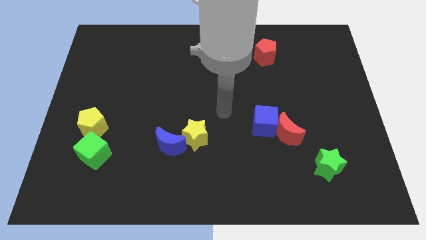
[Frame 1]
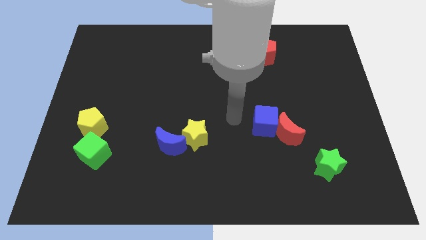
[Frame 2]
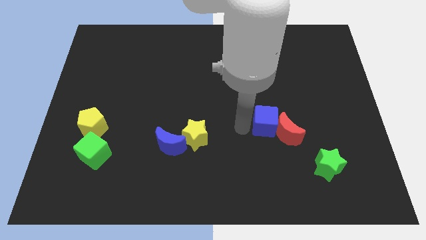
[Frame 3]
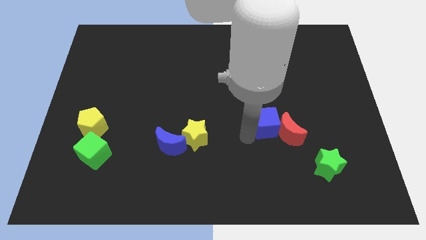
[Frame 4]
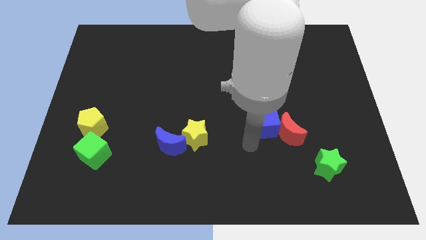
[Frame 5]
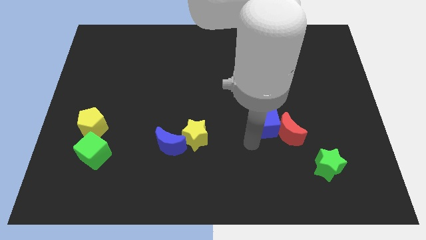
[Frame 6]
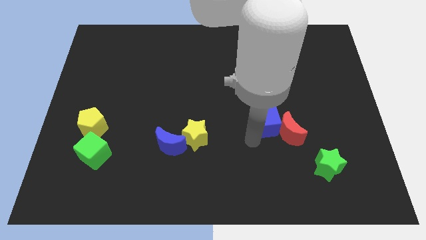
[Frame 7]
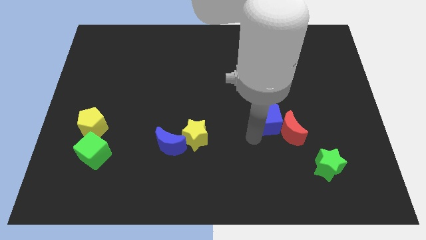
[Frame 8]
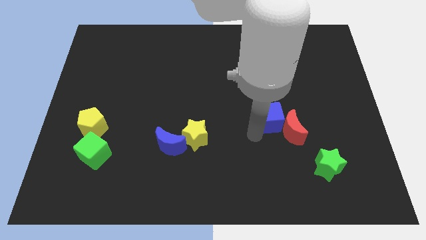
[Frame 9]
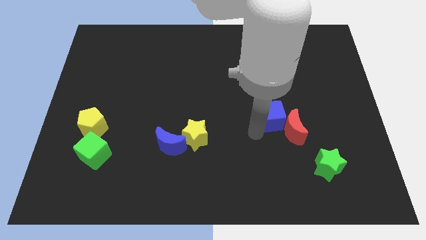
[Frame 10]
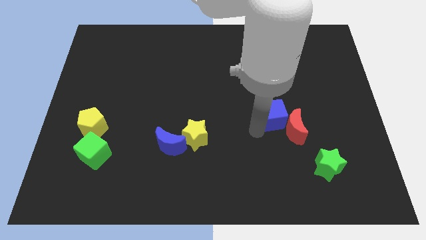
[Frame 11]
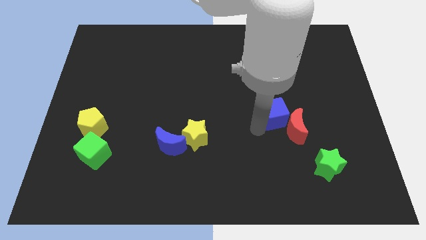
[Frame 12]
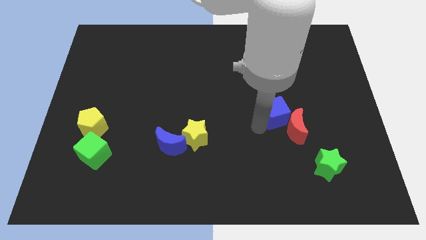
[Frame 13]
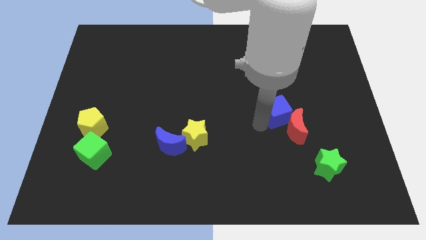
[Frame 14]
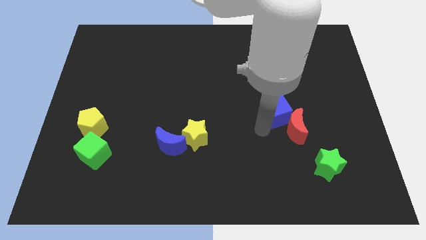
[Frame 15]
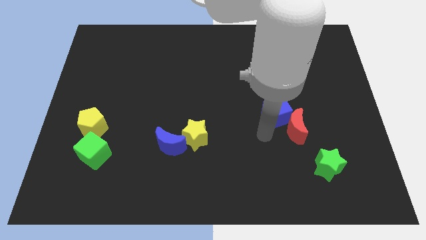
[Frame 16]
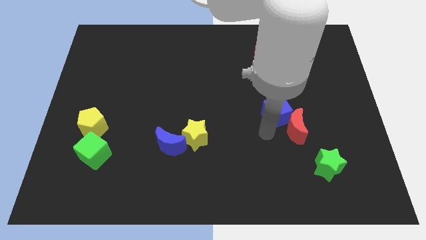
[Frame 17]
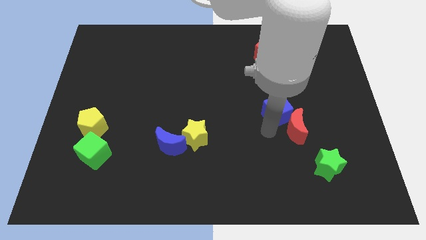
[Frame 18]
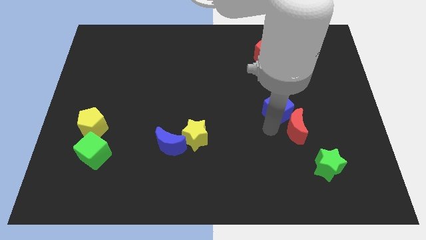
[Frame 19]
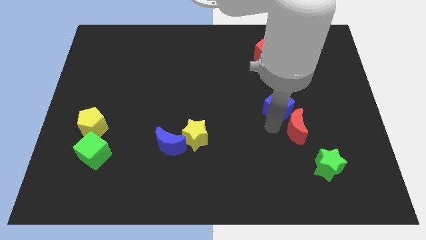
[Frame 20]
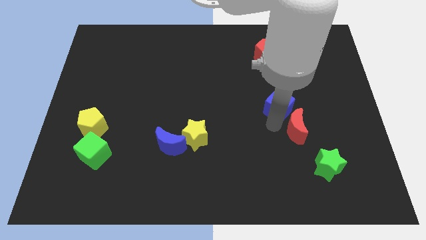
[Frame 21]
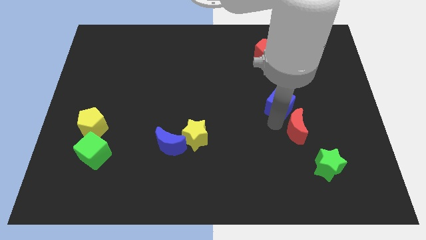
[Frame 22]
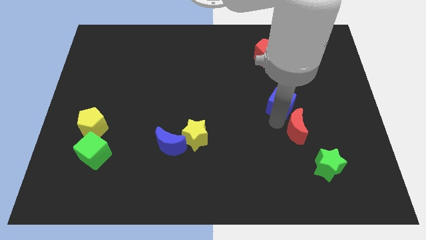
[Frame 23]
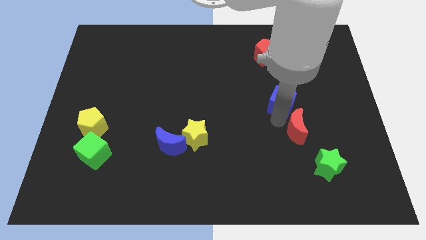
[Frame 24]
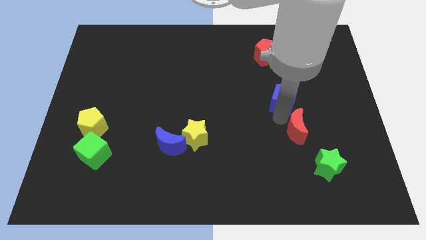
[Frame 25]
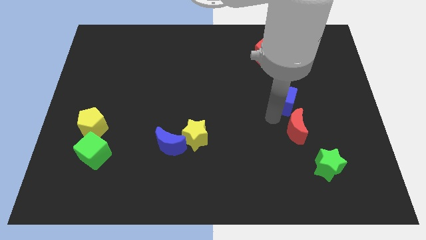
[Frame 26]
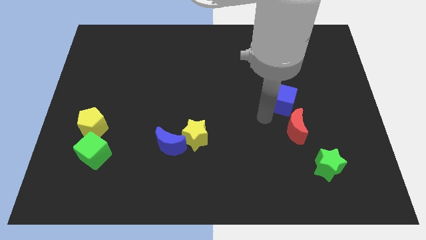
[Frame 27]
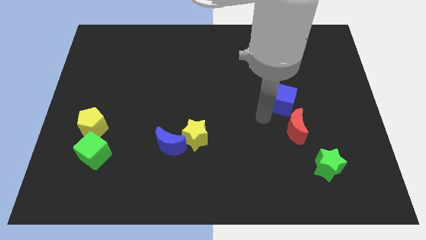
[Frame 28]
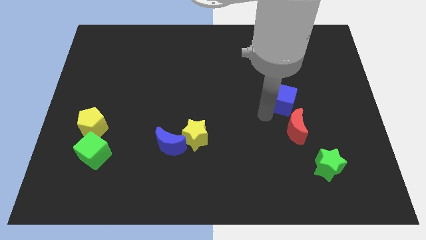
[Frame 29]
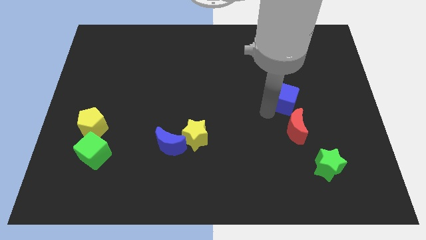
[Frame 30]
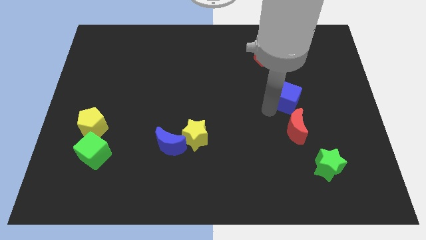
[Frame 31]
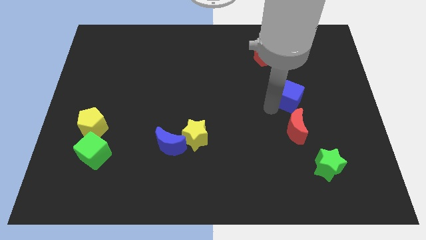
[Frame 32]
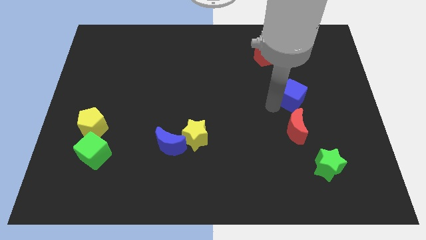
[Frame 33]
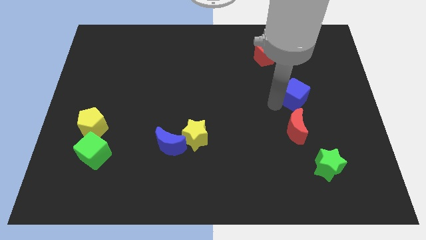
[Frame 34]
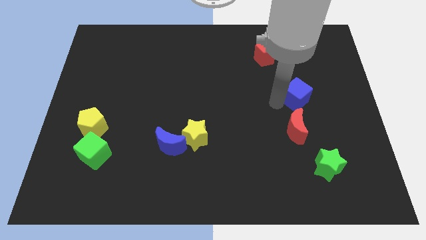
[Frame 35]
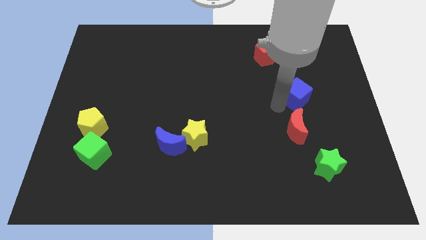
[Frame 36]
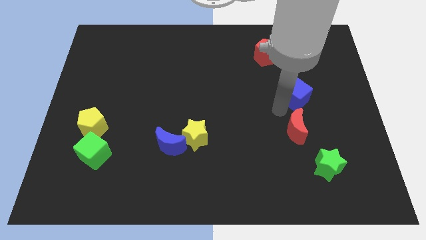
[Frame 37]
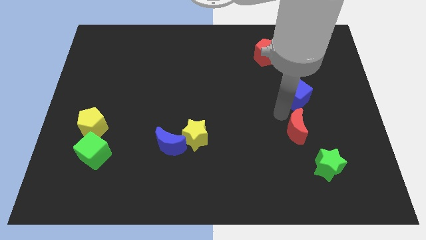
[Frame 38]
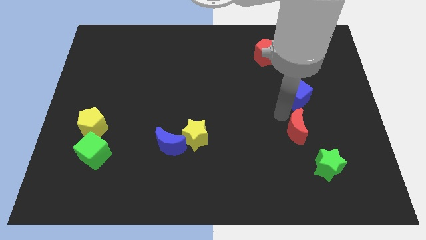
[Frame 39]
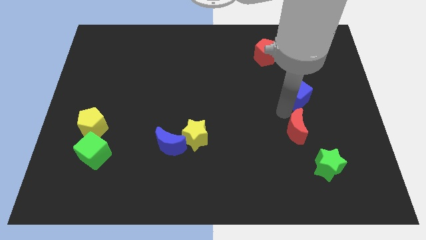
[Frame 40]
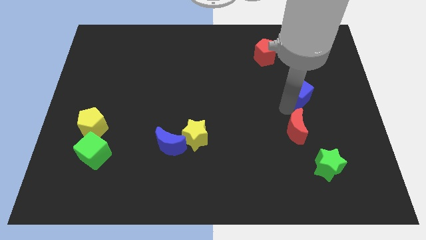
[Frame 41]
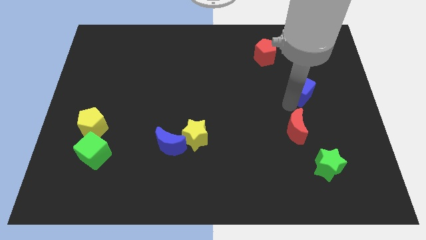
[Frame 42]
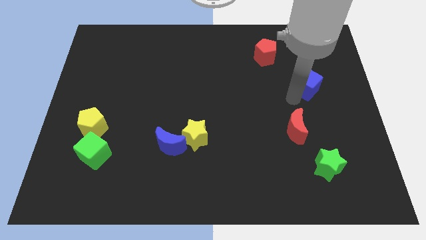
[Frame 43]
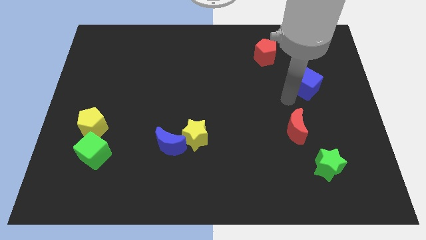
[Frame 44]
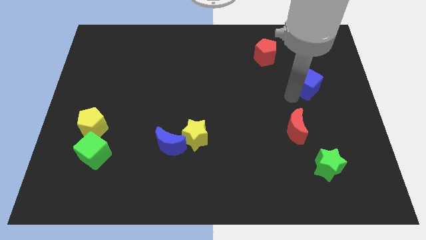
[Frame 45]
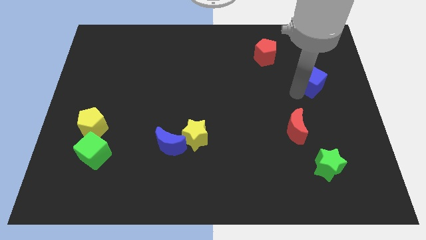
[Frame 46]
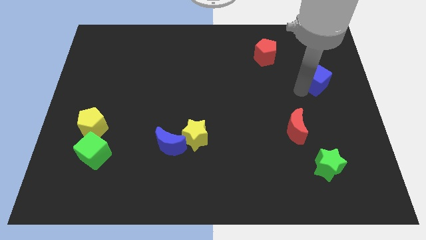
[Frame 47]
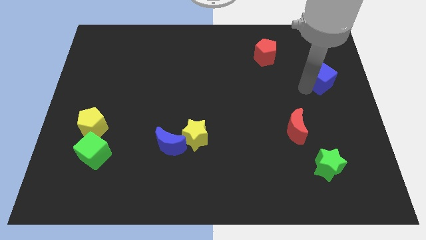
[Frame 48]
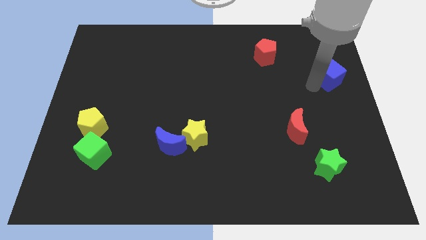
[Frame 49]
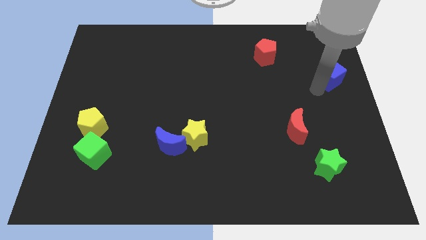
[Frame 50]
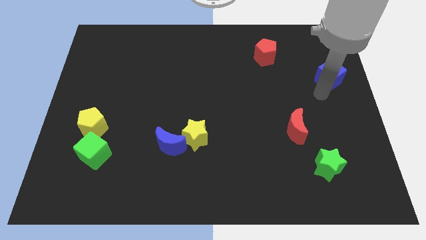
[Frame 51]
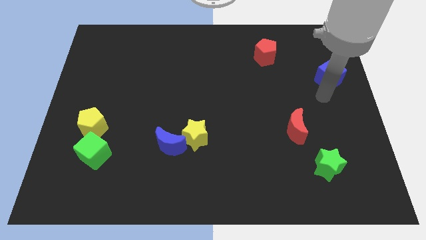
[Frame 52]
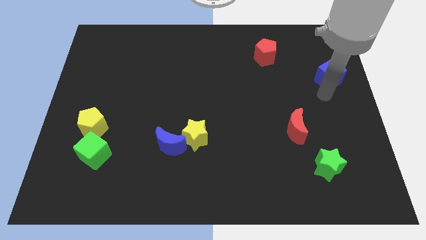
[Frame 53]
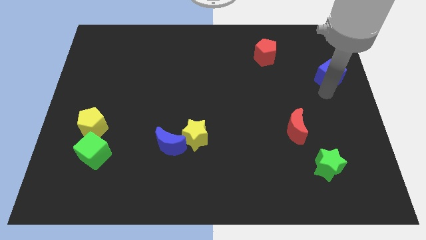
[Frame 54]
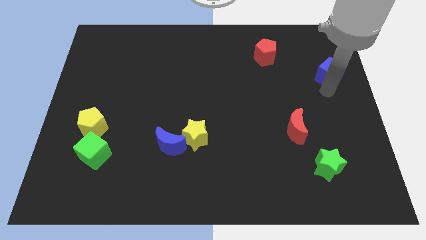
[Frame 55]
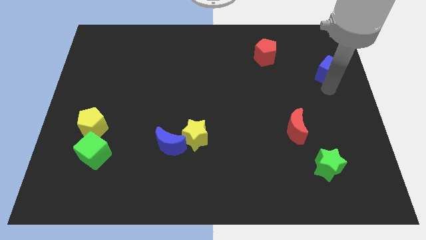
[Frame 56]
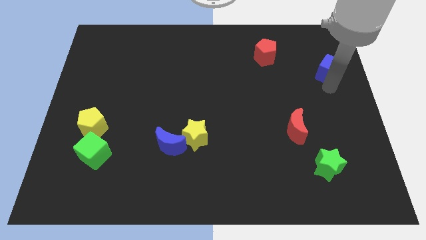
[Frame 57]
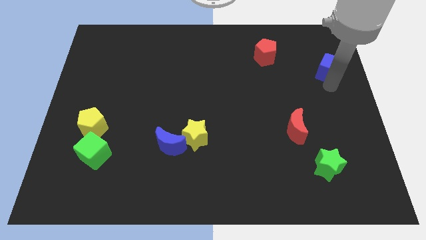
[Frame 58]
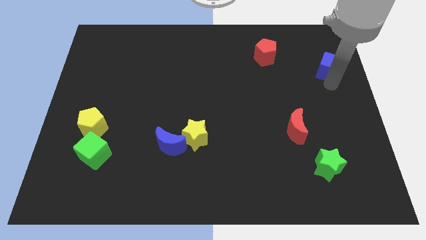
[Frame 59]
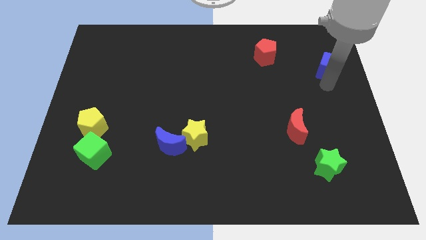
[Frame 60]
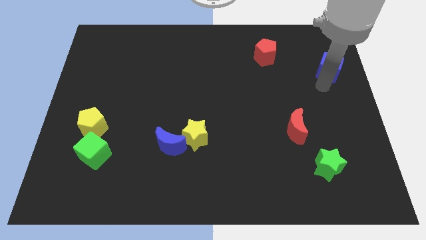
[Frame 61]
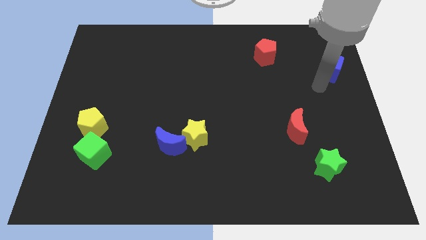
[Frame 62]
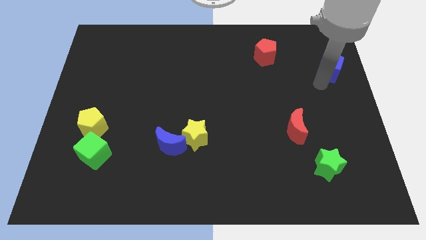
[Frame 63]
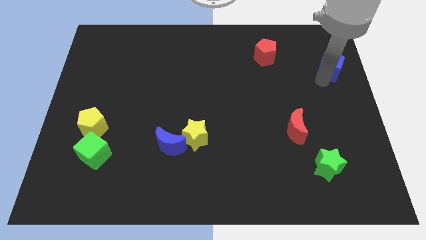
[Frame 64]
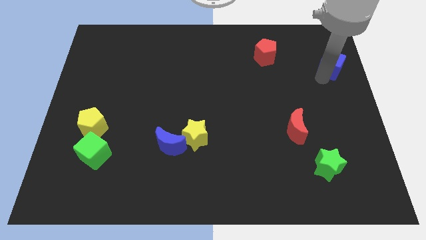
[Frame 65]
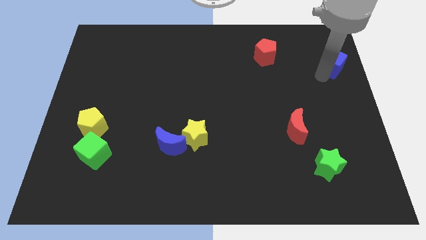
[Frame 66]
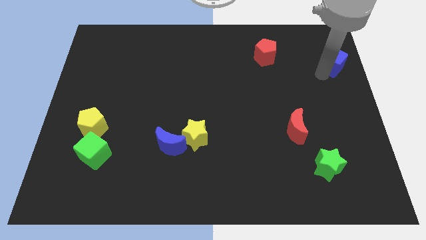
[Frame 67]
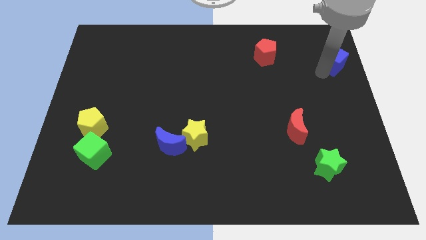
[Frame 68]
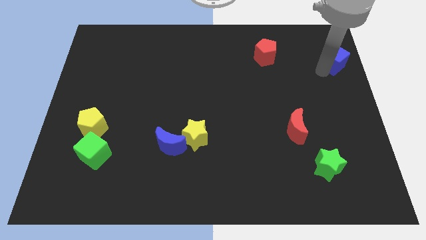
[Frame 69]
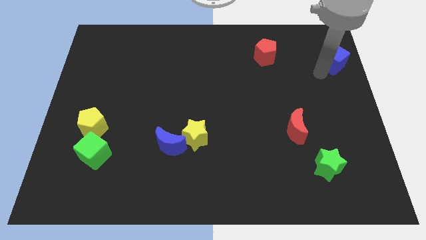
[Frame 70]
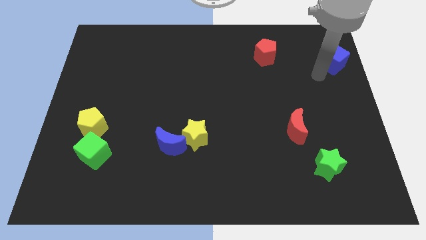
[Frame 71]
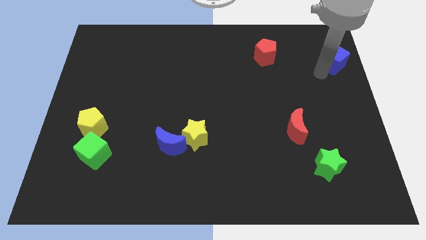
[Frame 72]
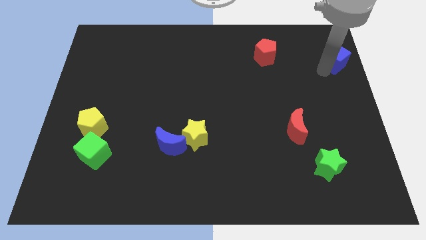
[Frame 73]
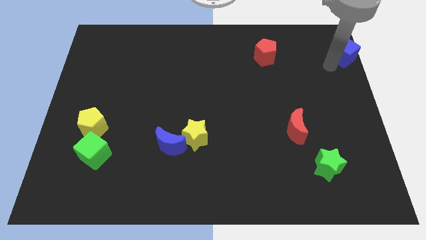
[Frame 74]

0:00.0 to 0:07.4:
move the blue cube to the upper right corner
